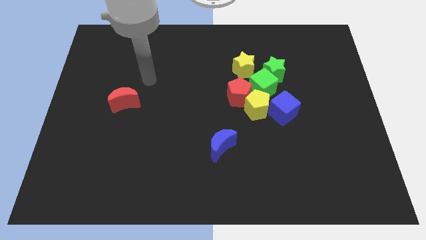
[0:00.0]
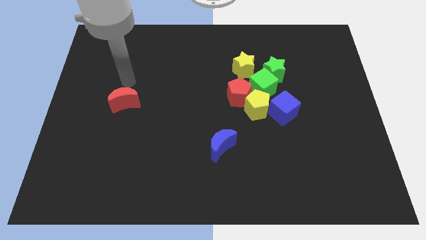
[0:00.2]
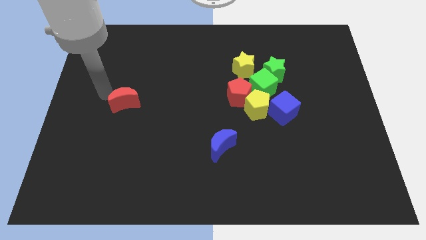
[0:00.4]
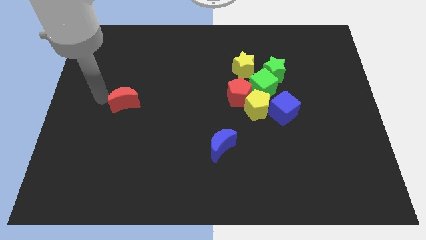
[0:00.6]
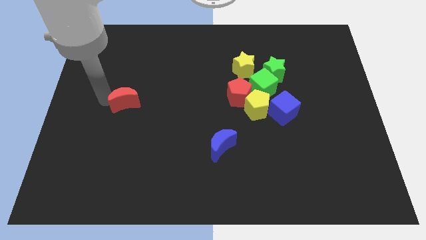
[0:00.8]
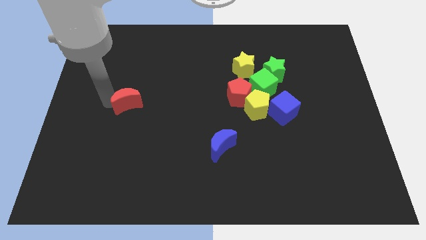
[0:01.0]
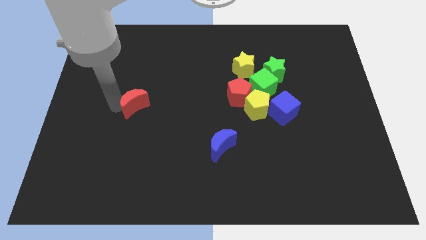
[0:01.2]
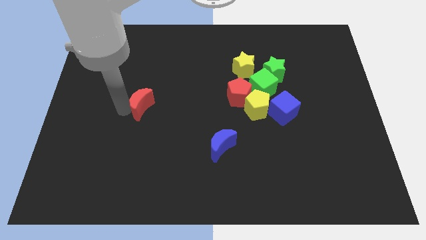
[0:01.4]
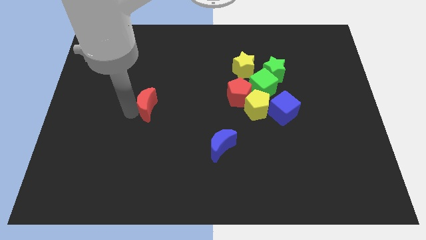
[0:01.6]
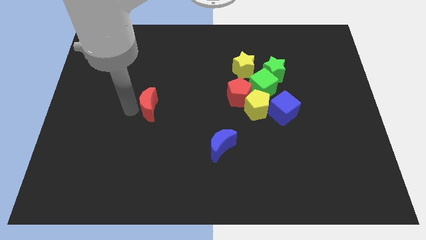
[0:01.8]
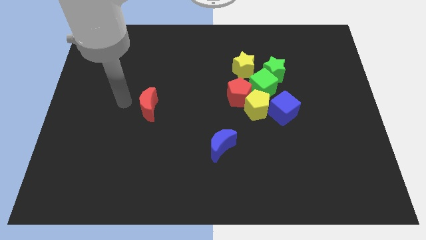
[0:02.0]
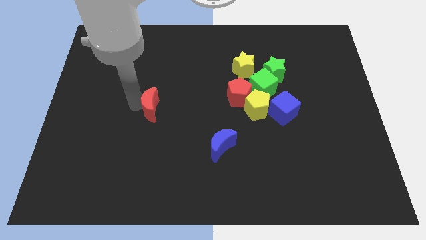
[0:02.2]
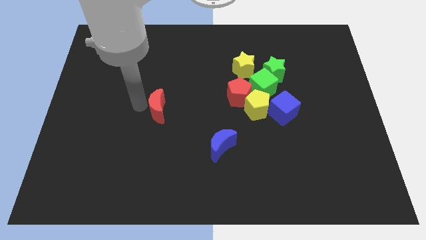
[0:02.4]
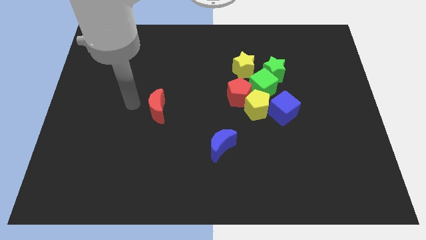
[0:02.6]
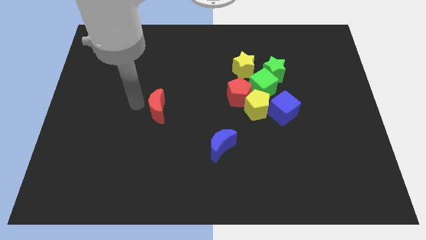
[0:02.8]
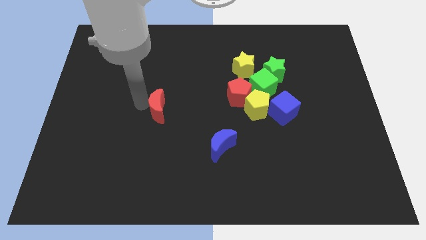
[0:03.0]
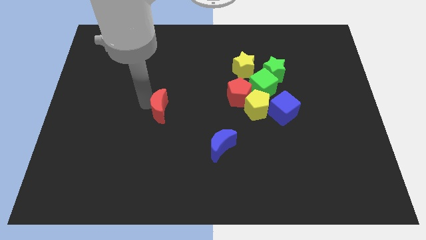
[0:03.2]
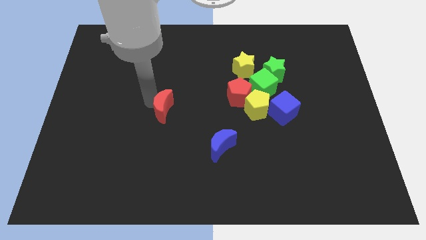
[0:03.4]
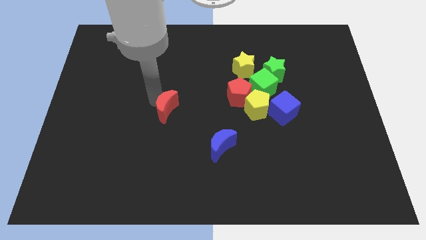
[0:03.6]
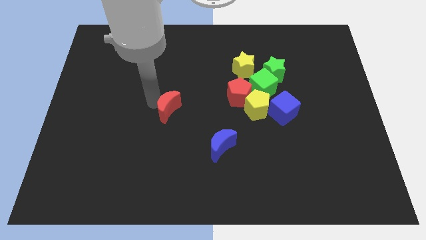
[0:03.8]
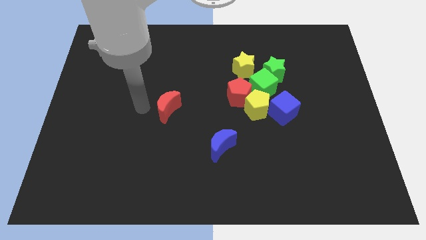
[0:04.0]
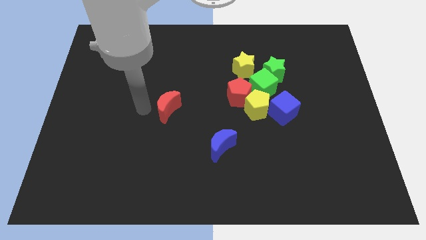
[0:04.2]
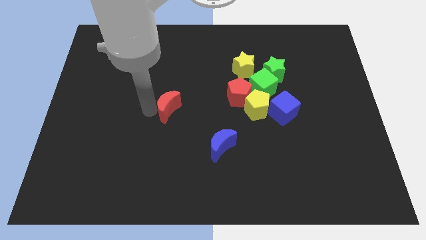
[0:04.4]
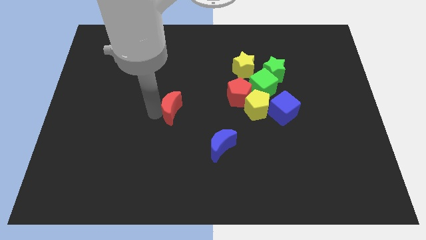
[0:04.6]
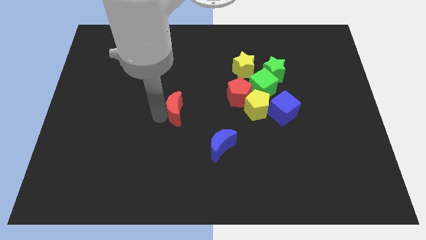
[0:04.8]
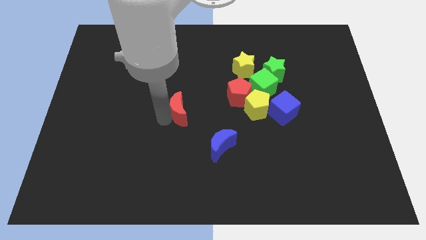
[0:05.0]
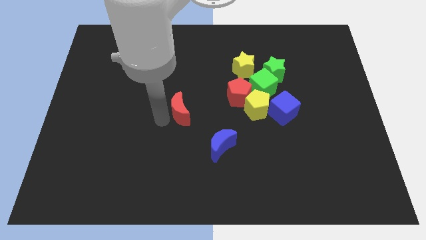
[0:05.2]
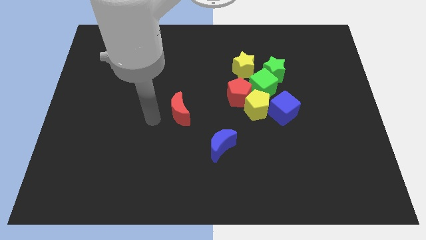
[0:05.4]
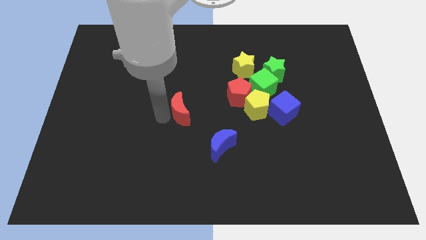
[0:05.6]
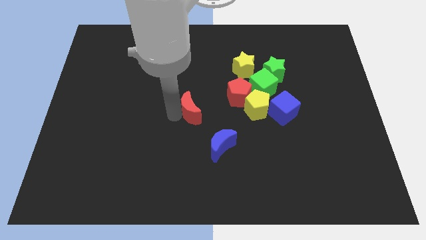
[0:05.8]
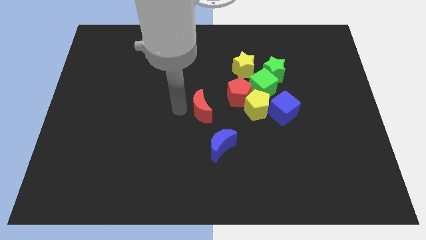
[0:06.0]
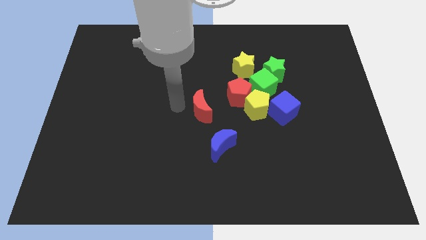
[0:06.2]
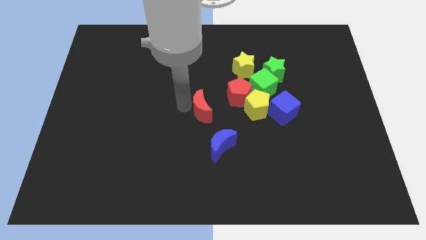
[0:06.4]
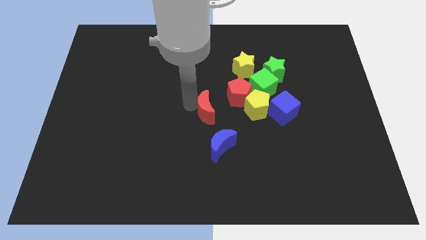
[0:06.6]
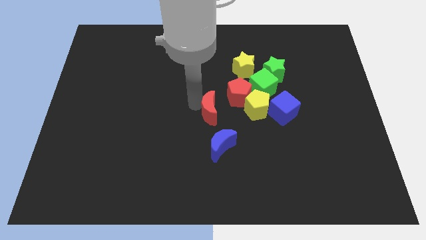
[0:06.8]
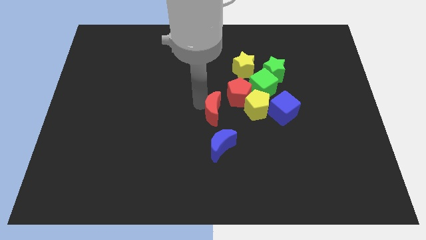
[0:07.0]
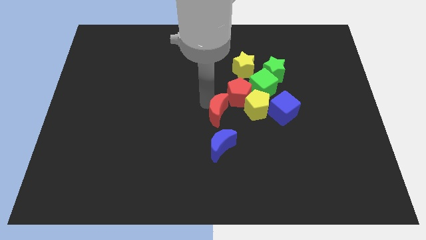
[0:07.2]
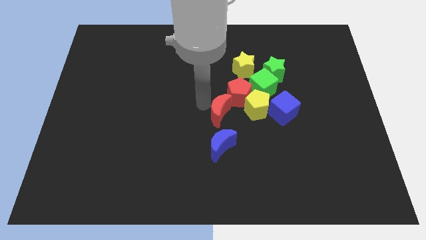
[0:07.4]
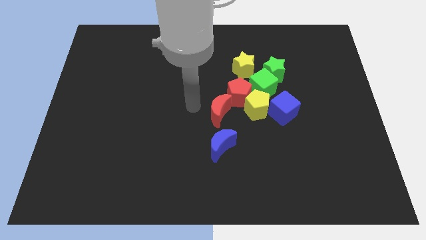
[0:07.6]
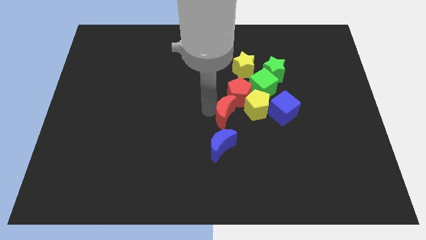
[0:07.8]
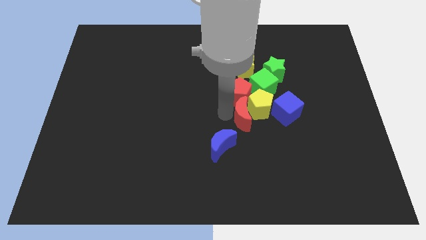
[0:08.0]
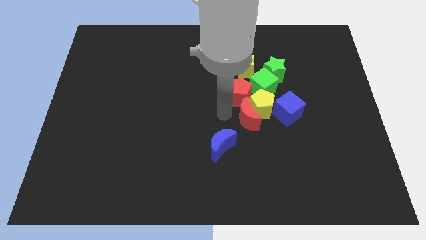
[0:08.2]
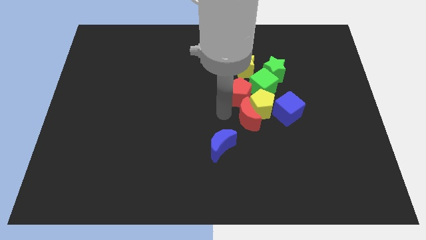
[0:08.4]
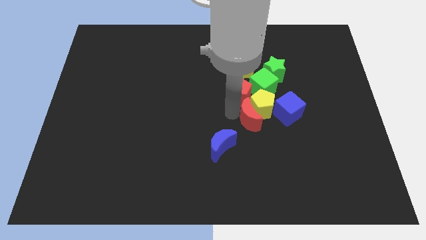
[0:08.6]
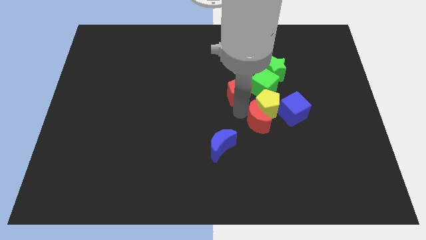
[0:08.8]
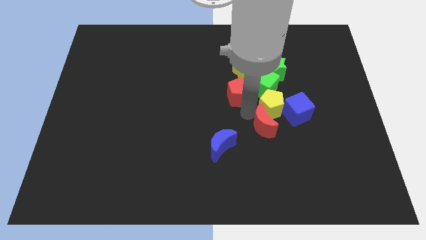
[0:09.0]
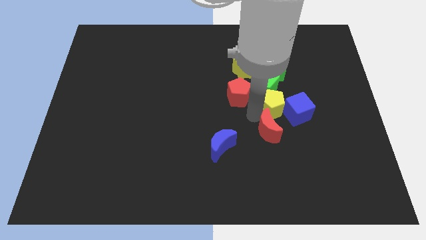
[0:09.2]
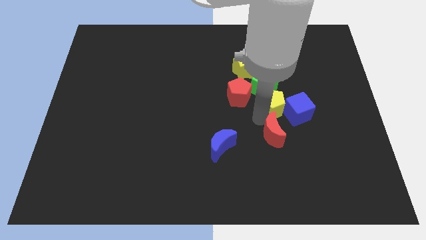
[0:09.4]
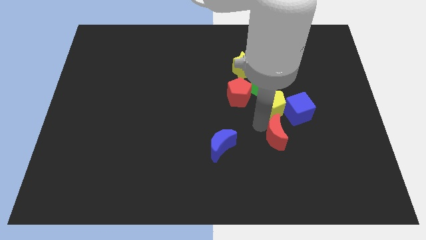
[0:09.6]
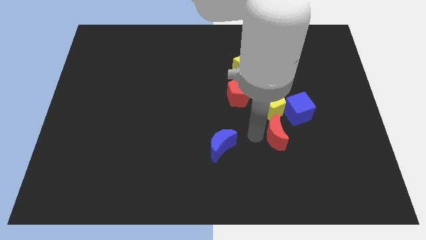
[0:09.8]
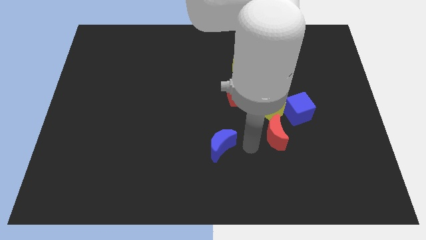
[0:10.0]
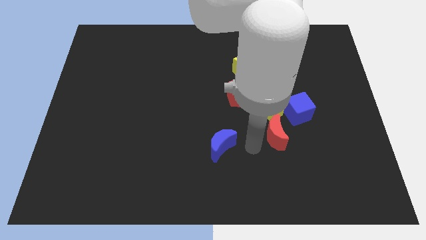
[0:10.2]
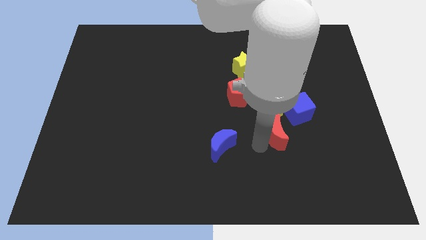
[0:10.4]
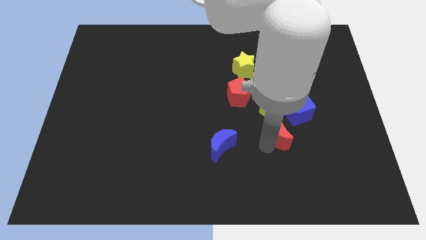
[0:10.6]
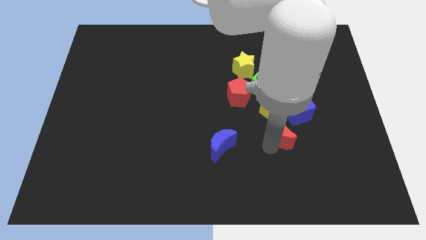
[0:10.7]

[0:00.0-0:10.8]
put the red moon diagonally down and to the right of the yellow pentagon

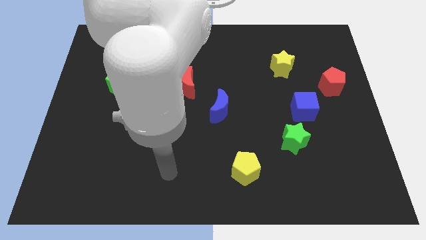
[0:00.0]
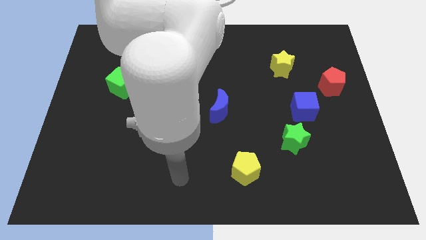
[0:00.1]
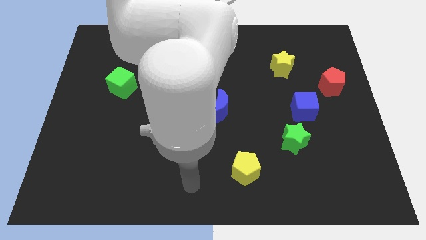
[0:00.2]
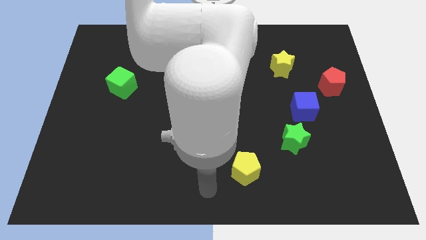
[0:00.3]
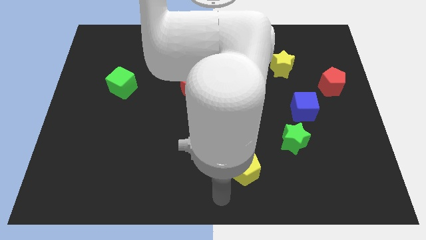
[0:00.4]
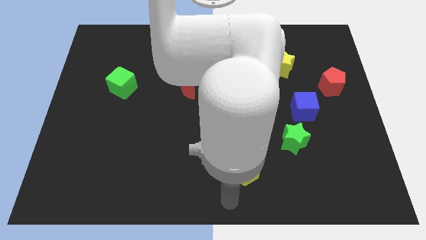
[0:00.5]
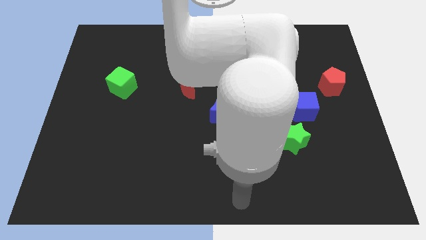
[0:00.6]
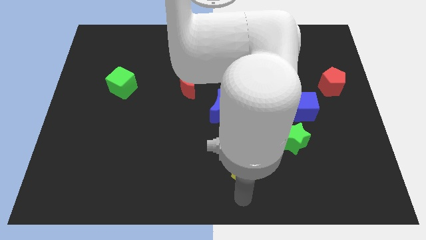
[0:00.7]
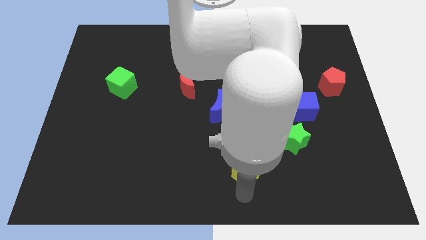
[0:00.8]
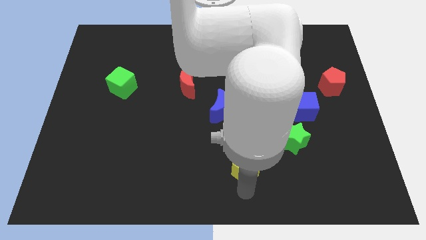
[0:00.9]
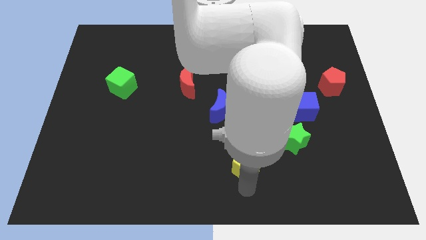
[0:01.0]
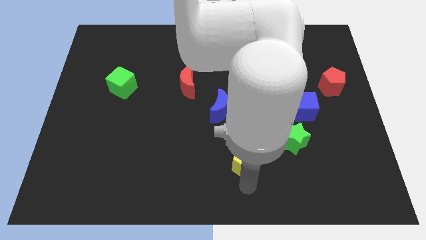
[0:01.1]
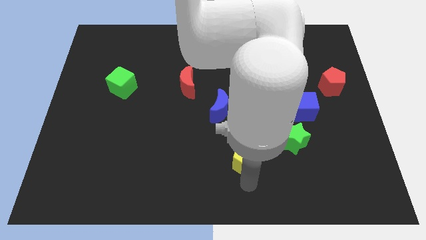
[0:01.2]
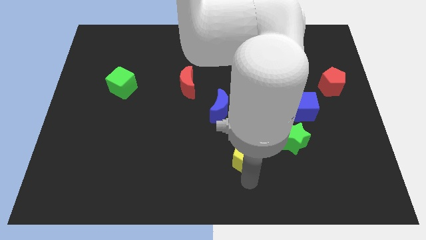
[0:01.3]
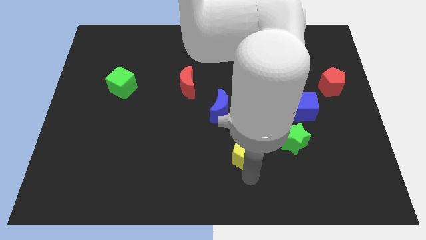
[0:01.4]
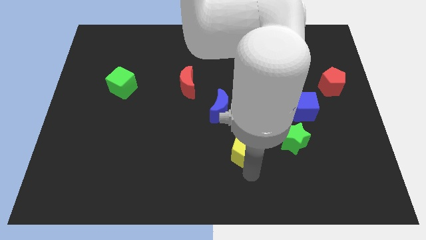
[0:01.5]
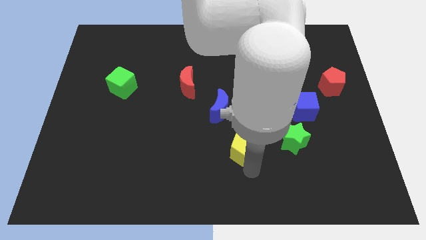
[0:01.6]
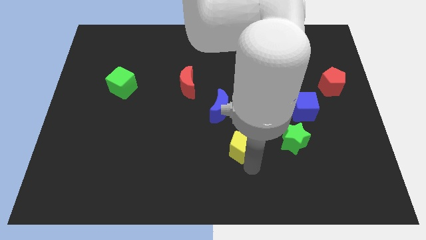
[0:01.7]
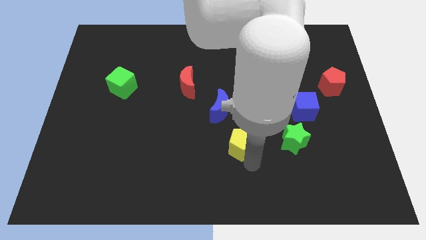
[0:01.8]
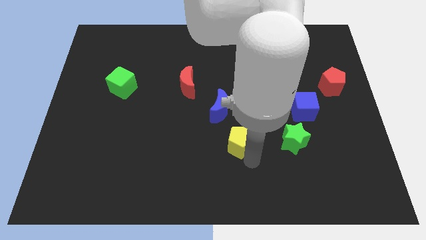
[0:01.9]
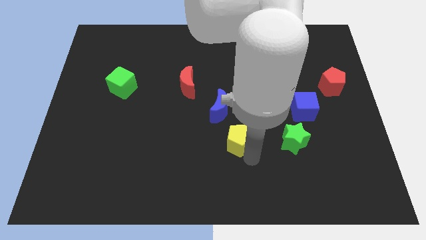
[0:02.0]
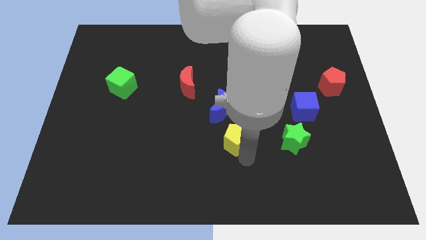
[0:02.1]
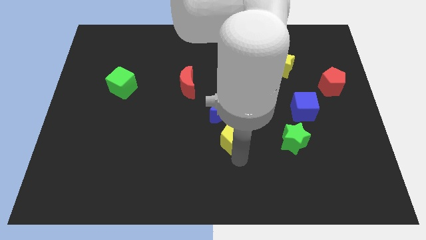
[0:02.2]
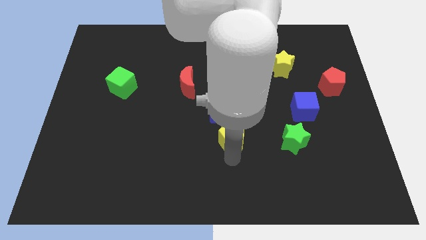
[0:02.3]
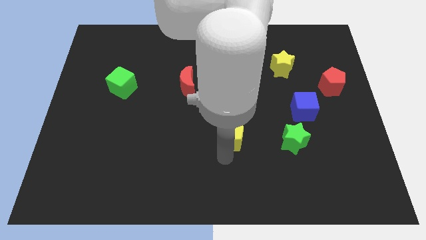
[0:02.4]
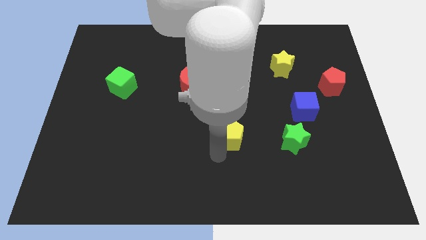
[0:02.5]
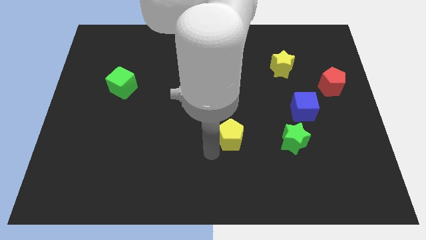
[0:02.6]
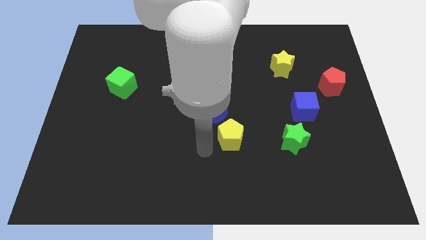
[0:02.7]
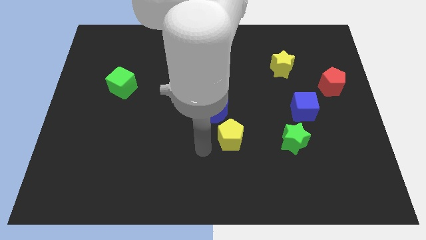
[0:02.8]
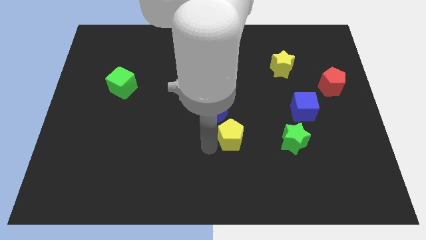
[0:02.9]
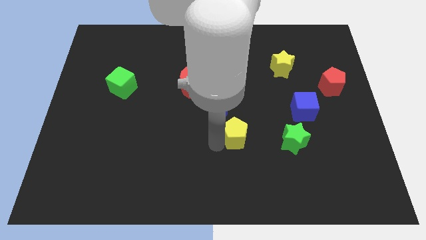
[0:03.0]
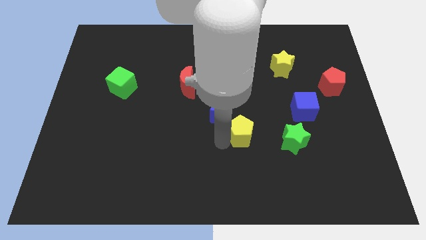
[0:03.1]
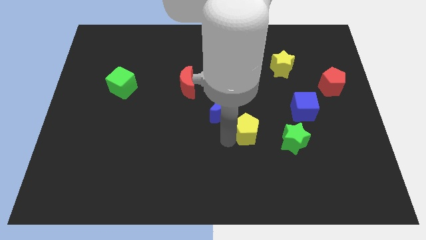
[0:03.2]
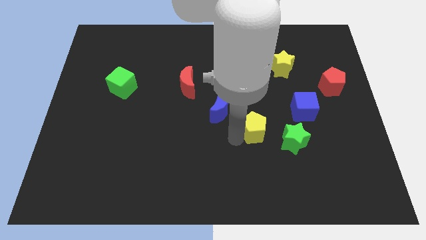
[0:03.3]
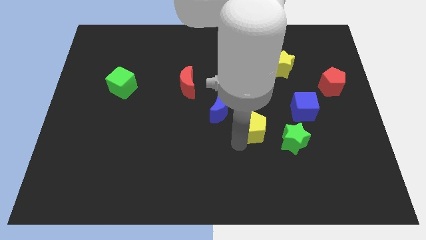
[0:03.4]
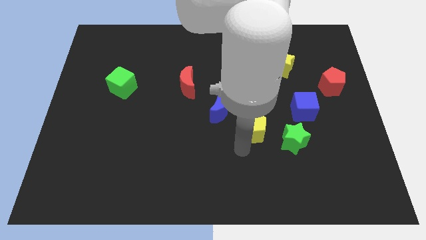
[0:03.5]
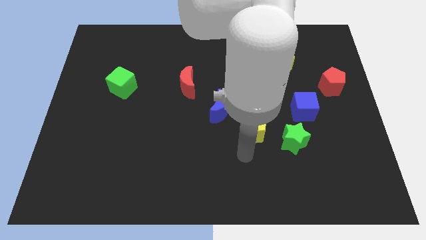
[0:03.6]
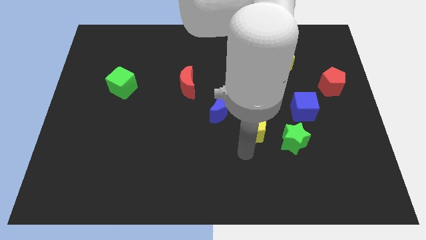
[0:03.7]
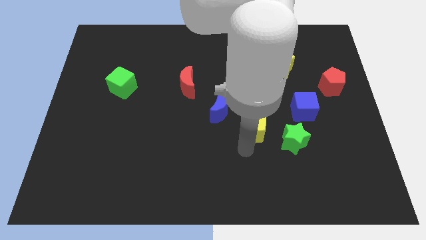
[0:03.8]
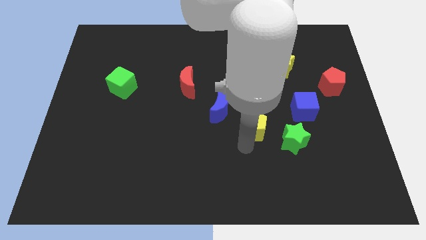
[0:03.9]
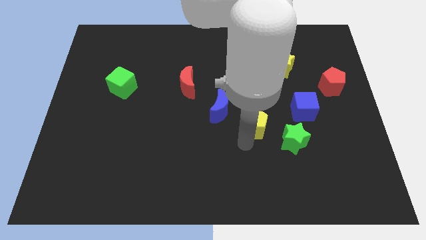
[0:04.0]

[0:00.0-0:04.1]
move the yellow pentagon to the left side of the blue cube
